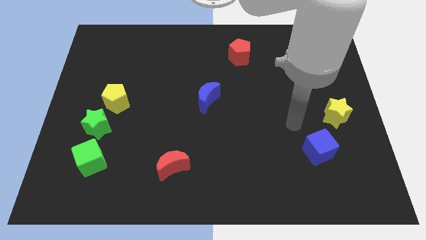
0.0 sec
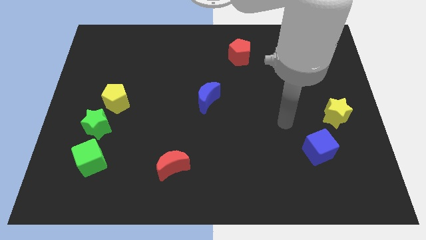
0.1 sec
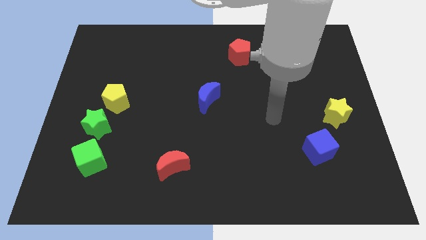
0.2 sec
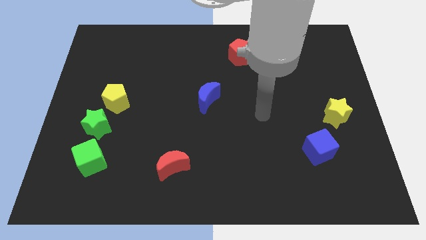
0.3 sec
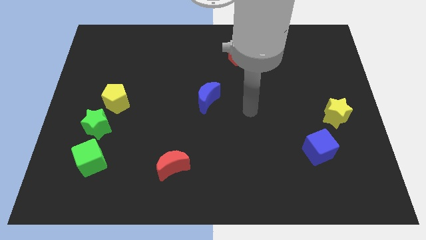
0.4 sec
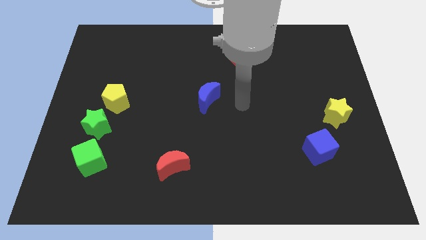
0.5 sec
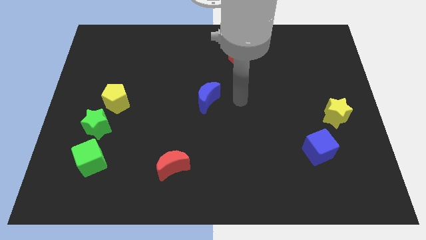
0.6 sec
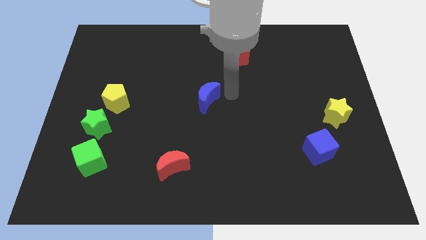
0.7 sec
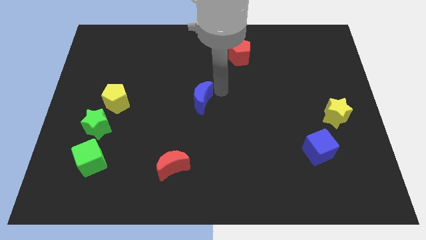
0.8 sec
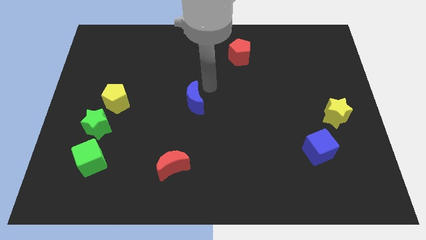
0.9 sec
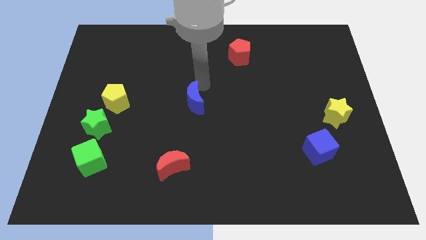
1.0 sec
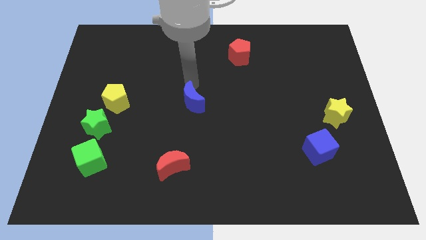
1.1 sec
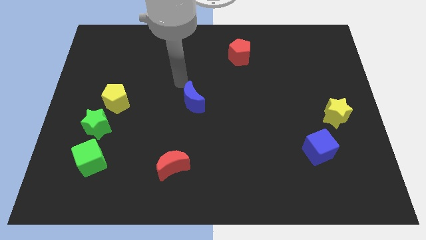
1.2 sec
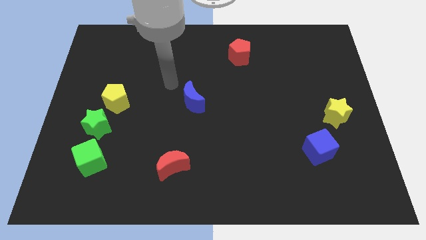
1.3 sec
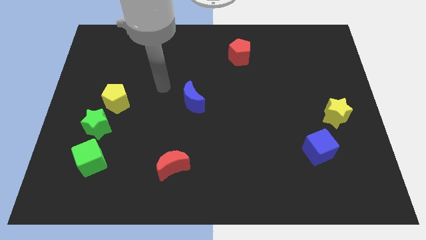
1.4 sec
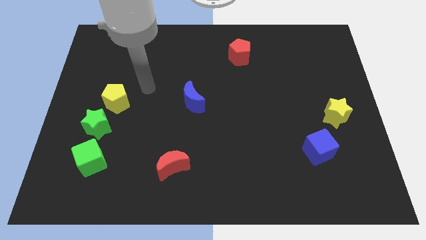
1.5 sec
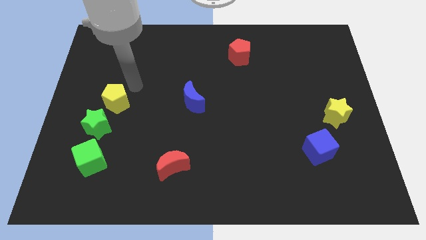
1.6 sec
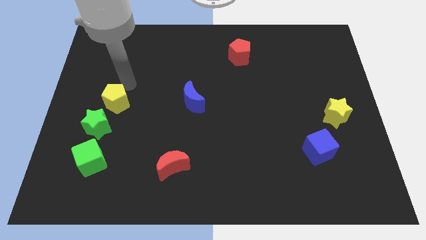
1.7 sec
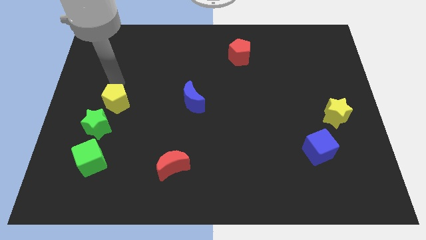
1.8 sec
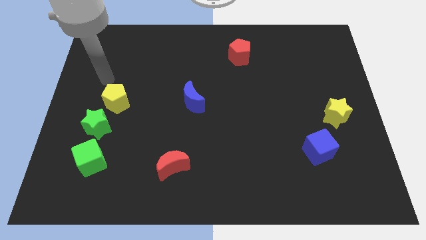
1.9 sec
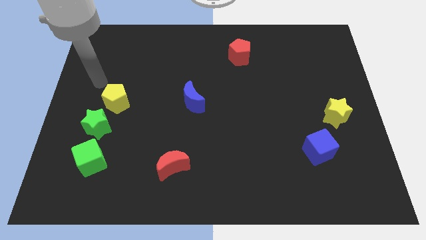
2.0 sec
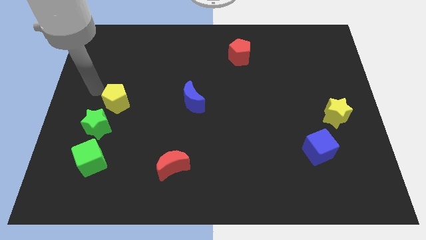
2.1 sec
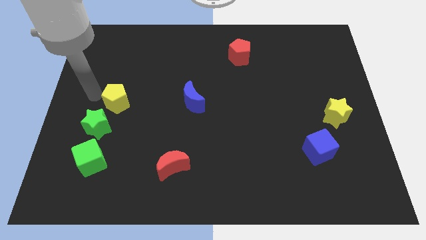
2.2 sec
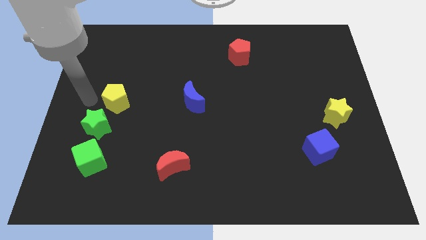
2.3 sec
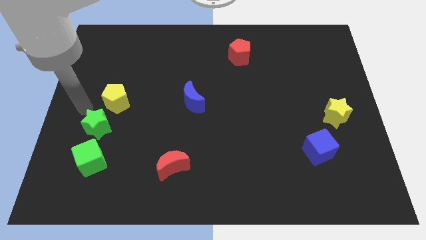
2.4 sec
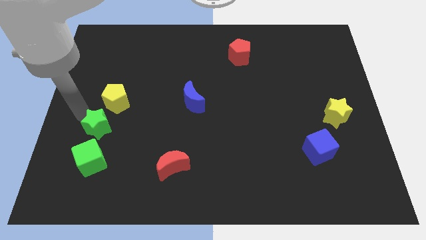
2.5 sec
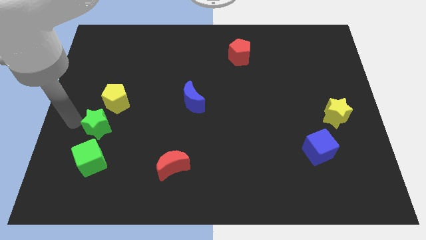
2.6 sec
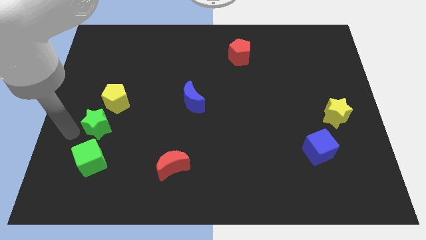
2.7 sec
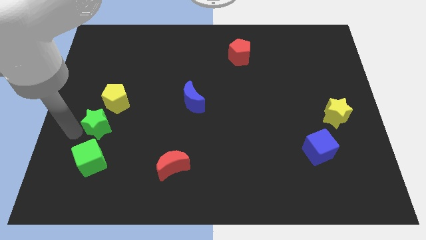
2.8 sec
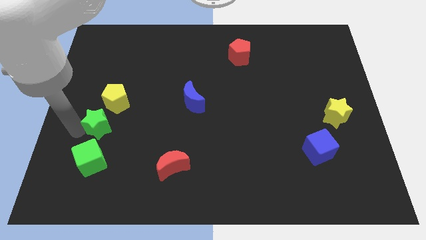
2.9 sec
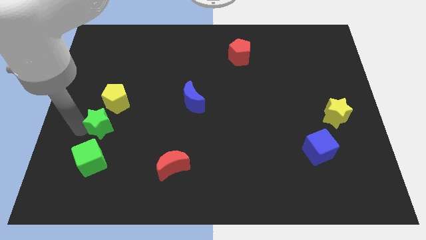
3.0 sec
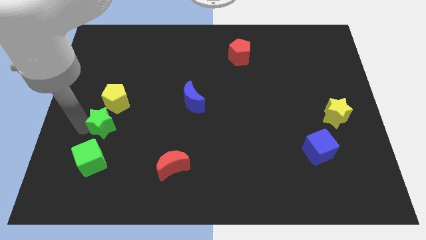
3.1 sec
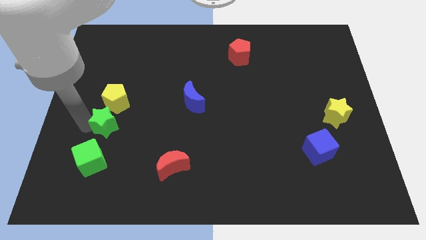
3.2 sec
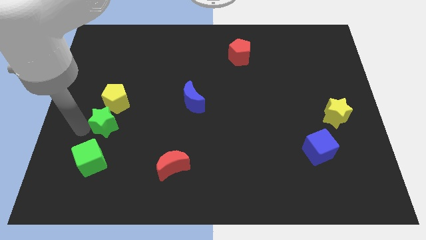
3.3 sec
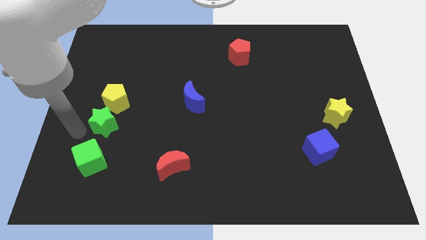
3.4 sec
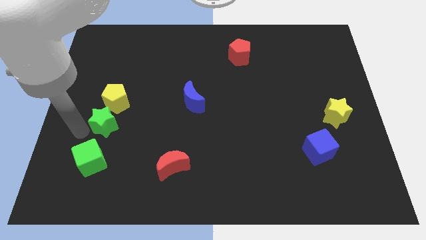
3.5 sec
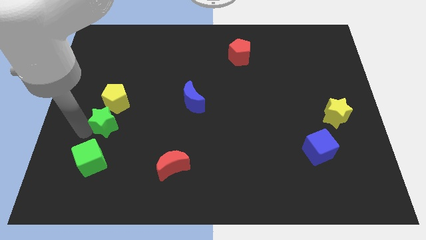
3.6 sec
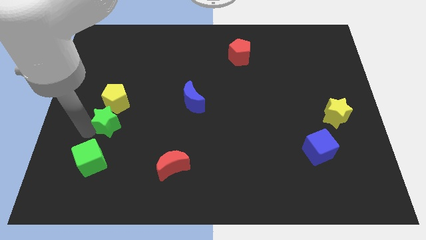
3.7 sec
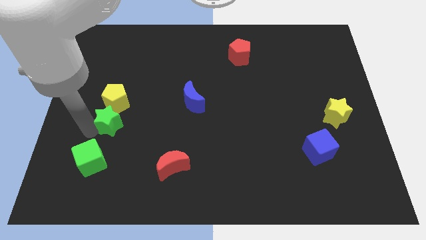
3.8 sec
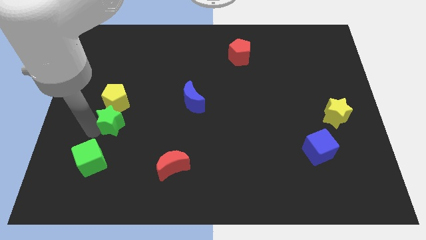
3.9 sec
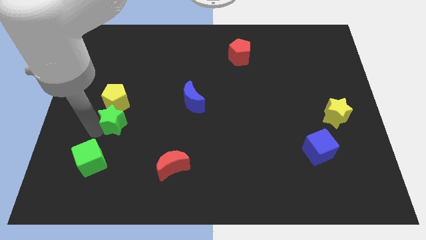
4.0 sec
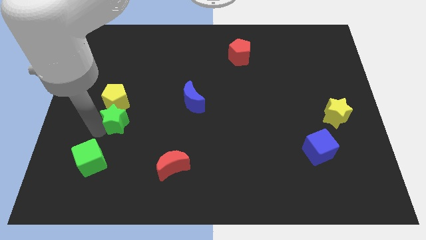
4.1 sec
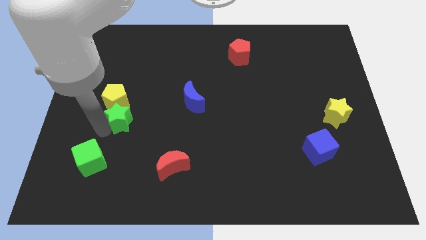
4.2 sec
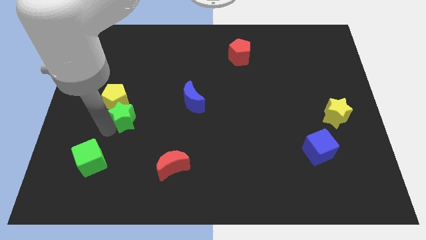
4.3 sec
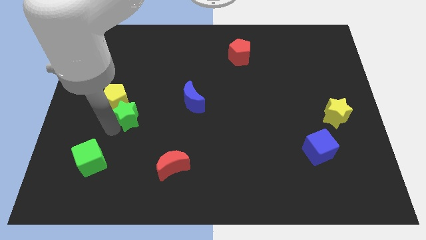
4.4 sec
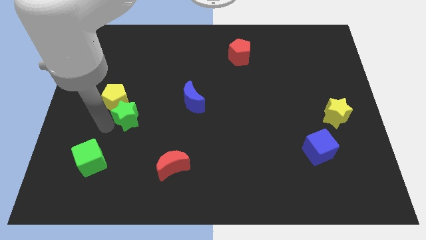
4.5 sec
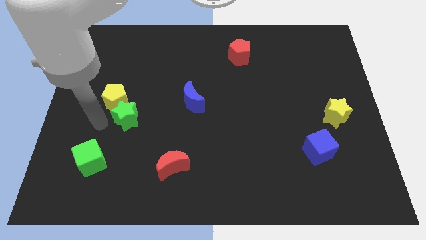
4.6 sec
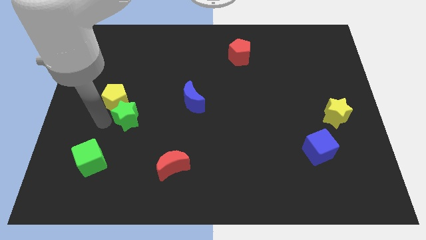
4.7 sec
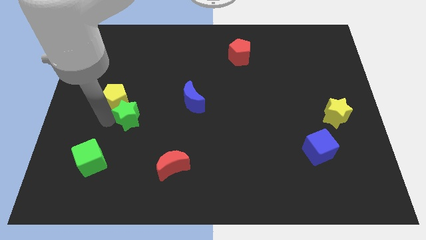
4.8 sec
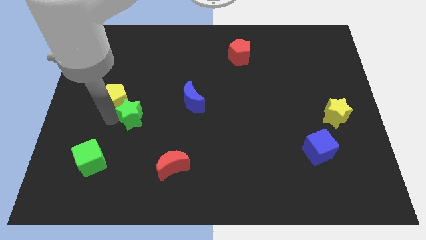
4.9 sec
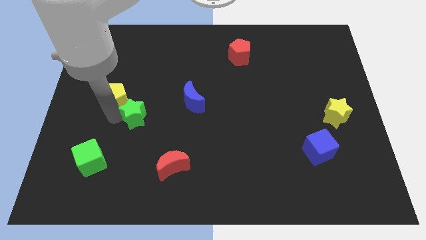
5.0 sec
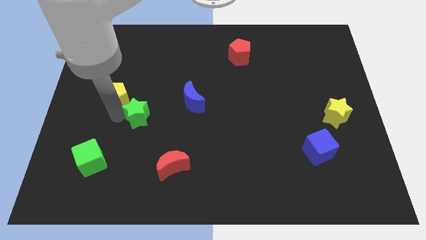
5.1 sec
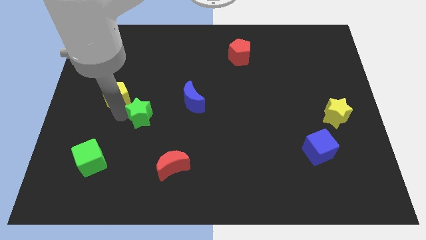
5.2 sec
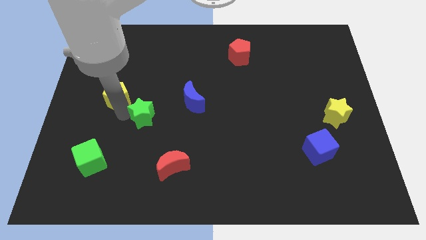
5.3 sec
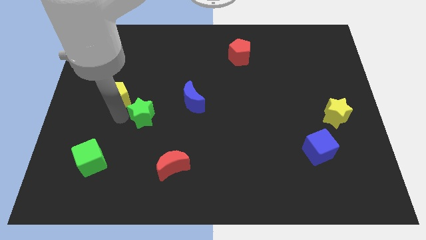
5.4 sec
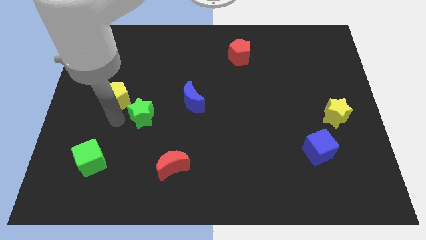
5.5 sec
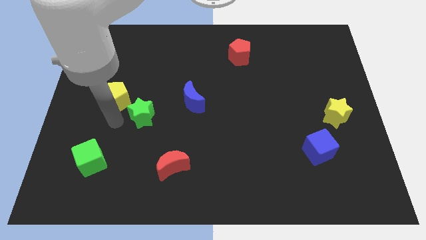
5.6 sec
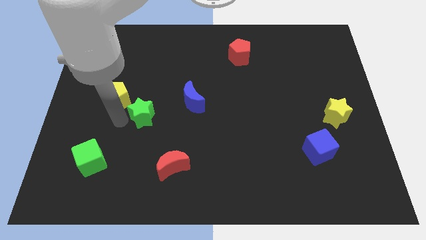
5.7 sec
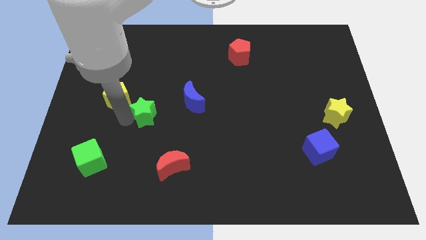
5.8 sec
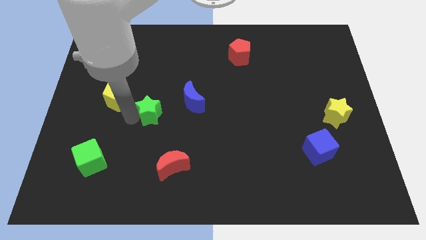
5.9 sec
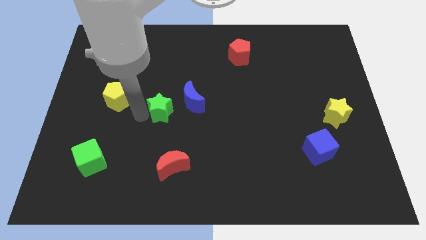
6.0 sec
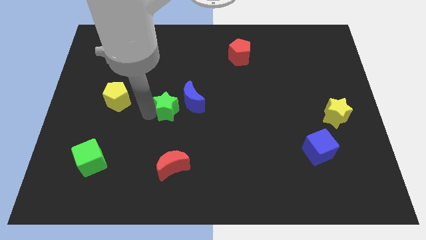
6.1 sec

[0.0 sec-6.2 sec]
slide the green star next to the blue moon

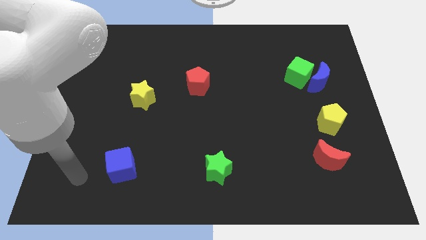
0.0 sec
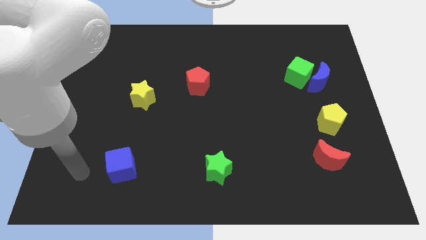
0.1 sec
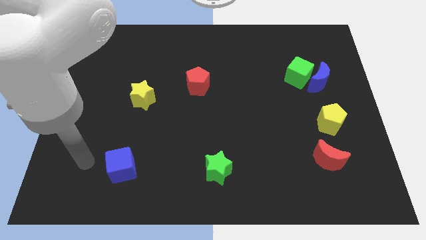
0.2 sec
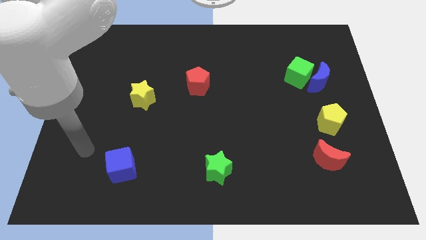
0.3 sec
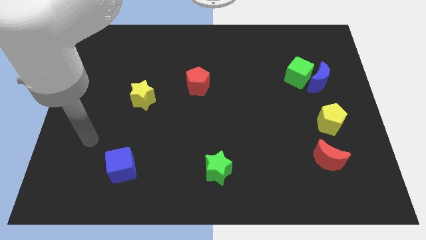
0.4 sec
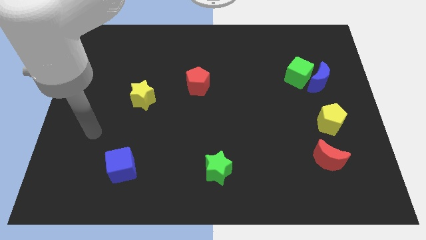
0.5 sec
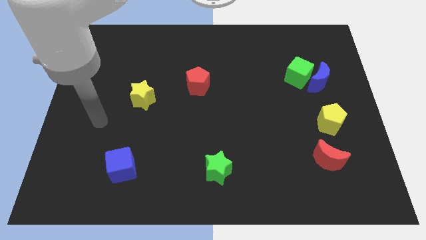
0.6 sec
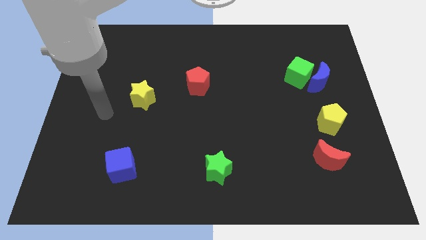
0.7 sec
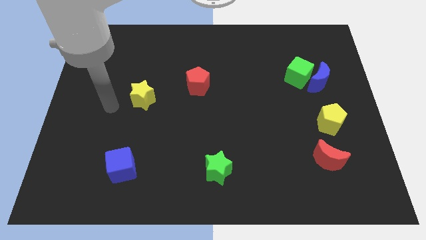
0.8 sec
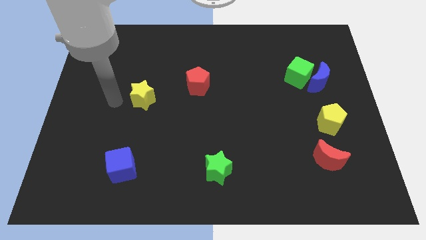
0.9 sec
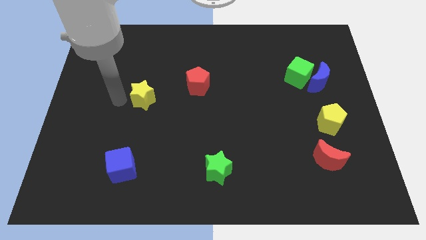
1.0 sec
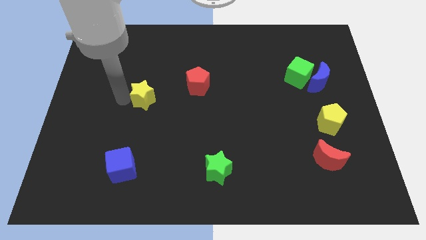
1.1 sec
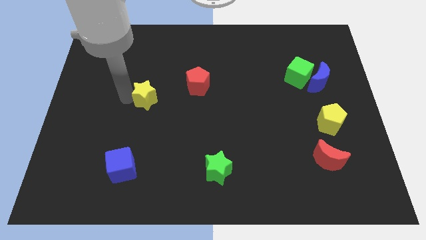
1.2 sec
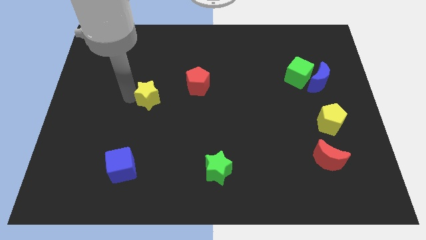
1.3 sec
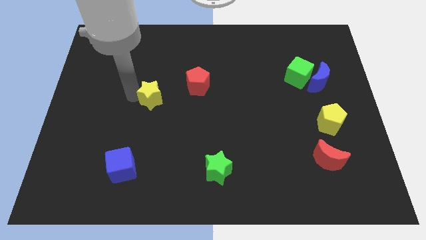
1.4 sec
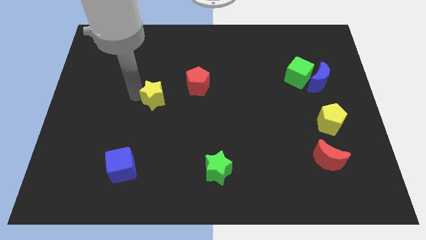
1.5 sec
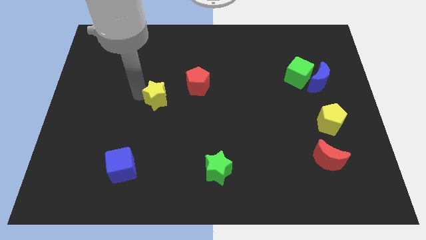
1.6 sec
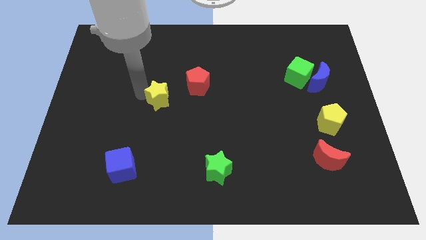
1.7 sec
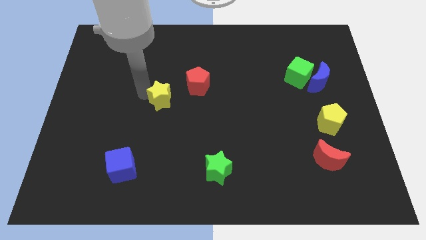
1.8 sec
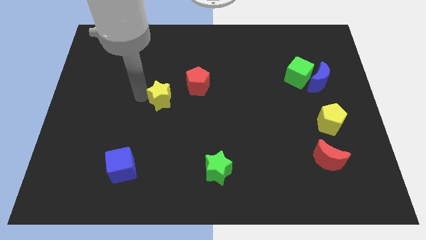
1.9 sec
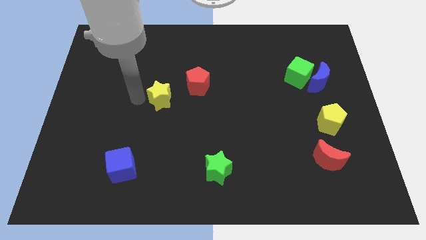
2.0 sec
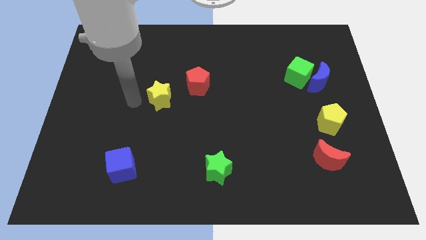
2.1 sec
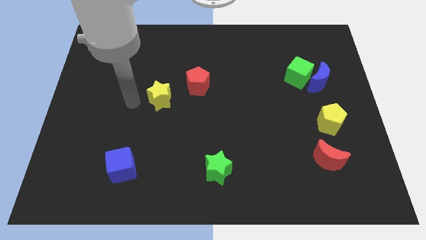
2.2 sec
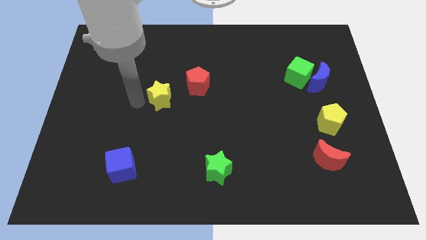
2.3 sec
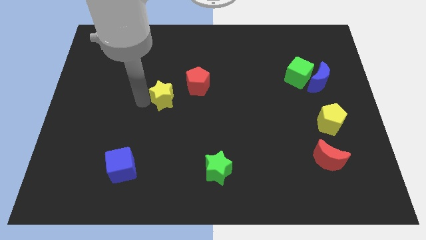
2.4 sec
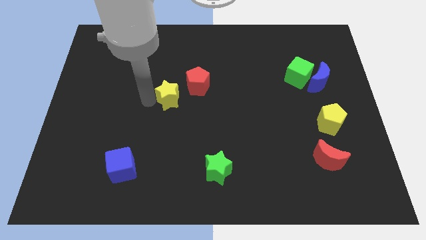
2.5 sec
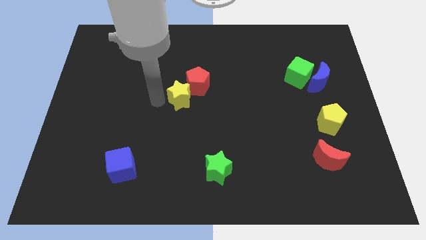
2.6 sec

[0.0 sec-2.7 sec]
move the yellow star towards the red pentagon
